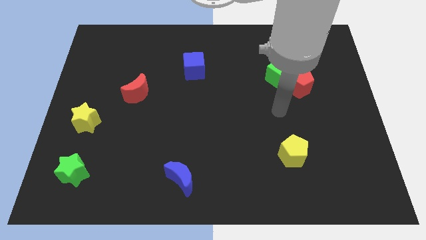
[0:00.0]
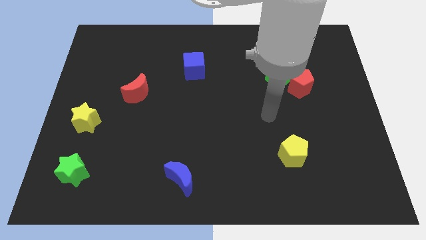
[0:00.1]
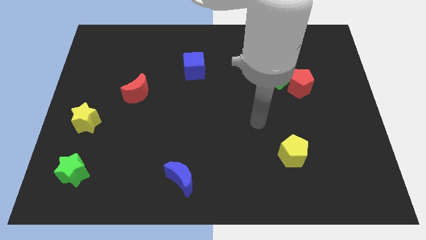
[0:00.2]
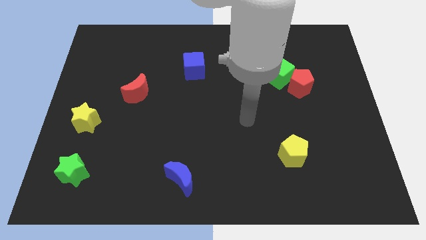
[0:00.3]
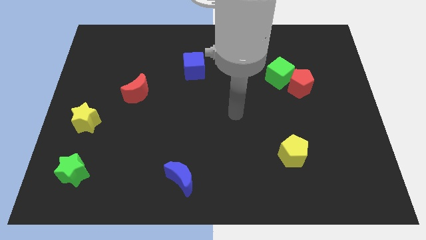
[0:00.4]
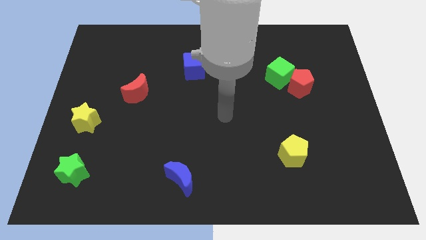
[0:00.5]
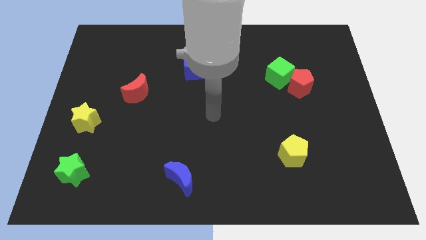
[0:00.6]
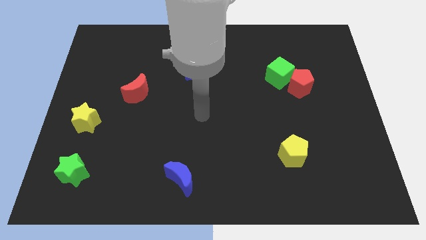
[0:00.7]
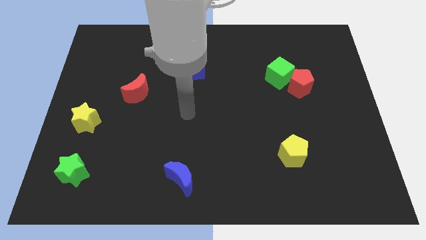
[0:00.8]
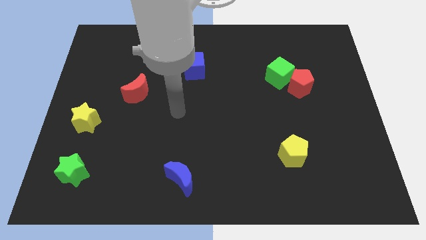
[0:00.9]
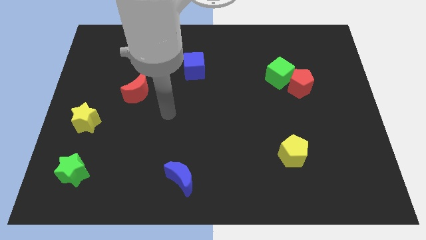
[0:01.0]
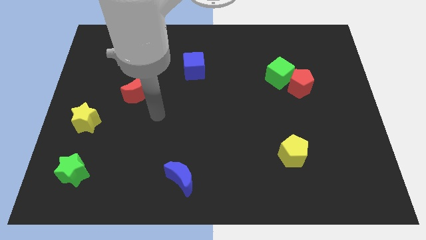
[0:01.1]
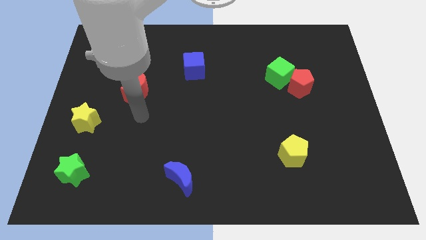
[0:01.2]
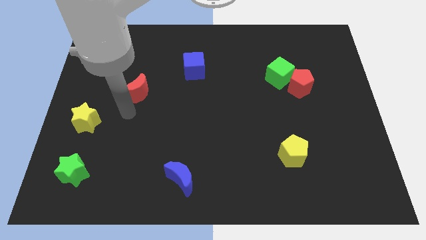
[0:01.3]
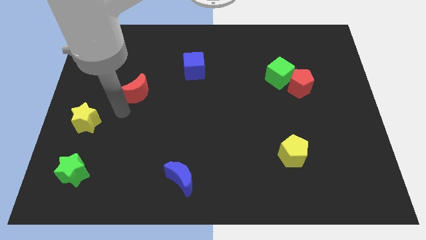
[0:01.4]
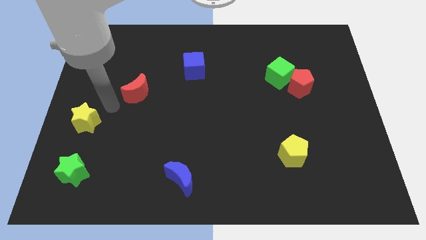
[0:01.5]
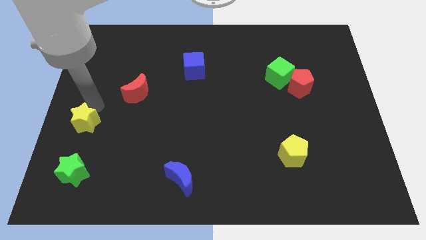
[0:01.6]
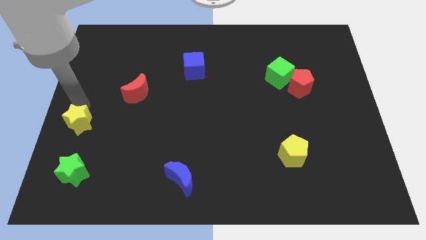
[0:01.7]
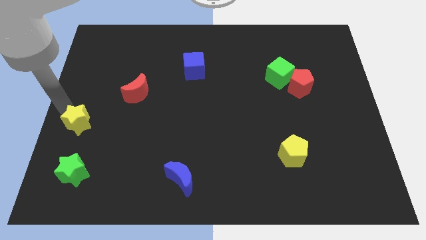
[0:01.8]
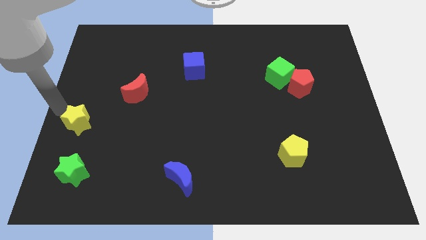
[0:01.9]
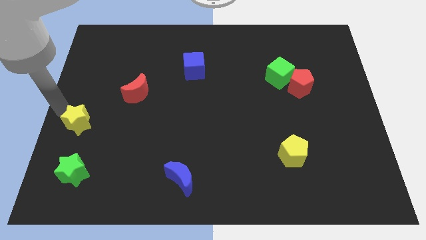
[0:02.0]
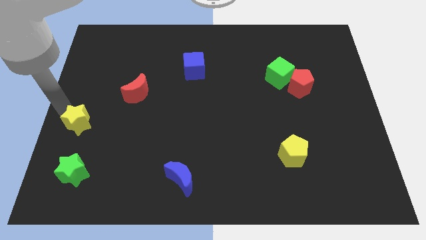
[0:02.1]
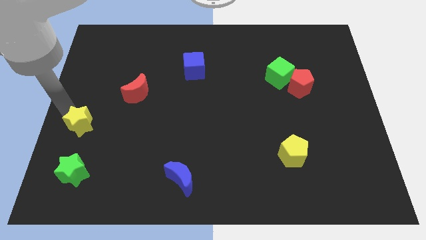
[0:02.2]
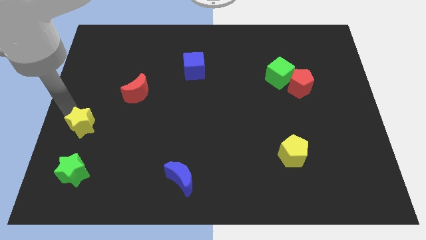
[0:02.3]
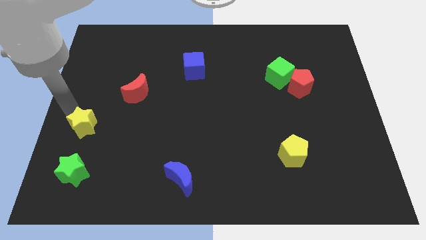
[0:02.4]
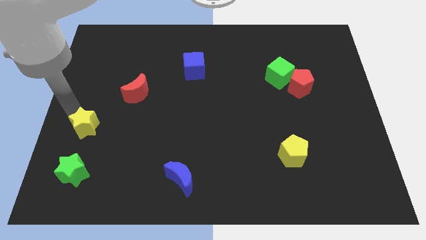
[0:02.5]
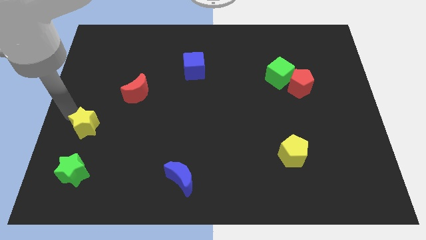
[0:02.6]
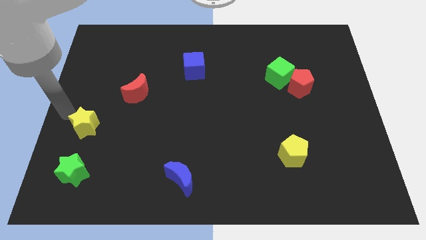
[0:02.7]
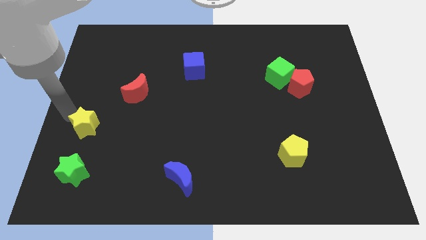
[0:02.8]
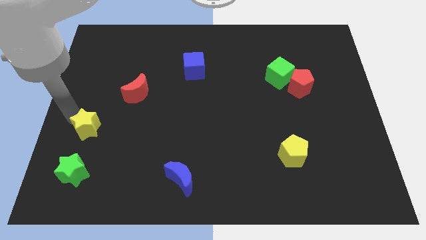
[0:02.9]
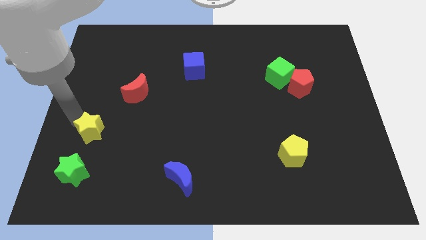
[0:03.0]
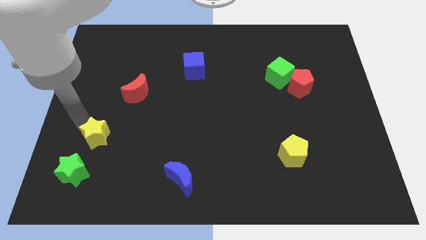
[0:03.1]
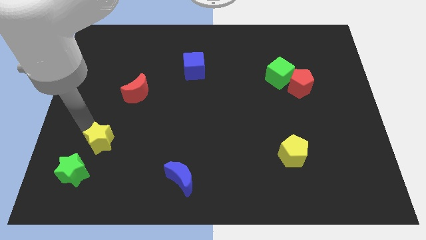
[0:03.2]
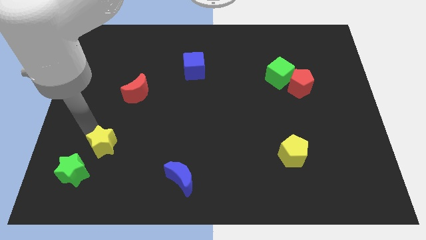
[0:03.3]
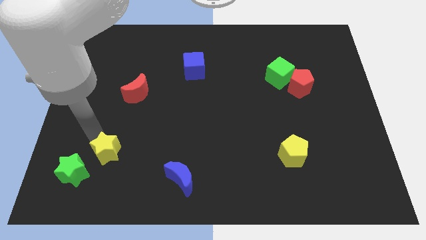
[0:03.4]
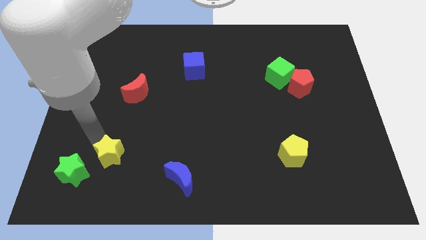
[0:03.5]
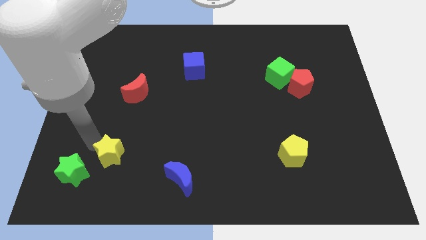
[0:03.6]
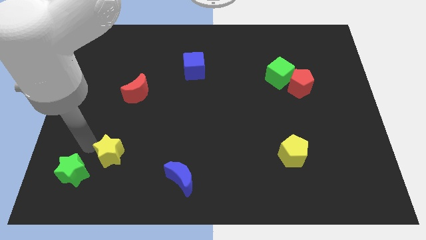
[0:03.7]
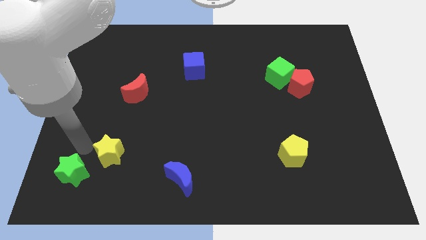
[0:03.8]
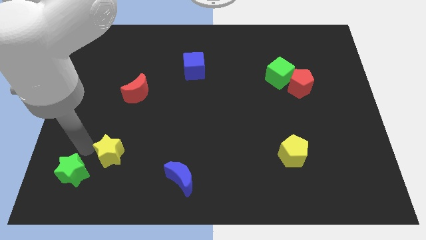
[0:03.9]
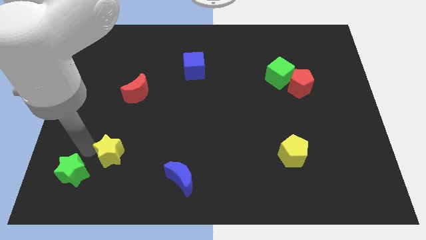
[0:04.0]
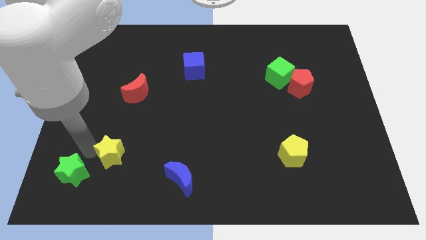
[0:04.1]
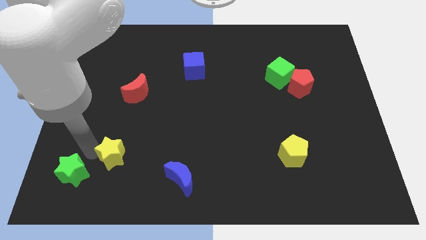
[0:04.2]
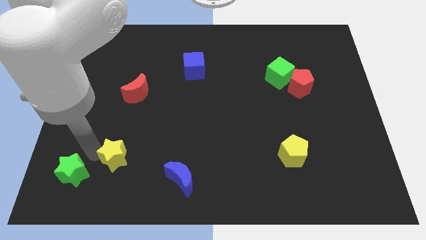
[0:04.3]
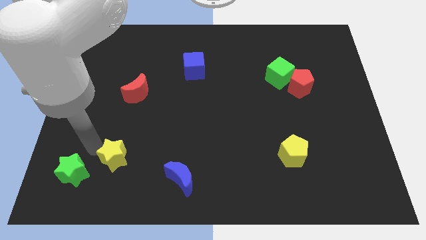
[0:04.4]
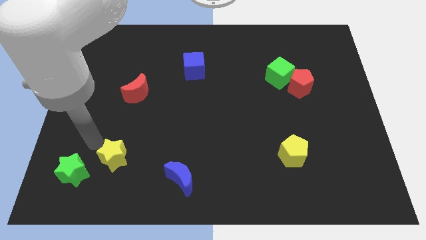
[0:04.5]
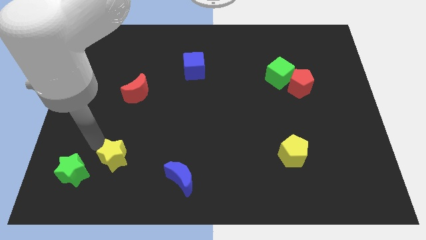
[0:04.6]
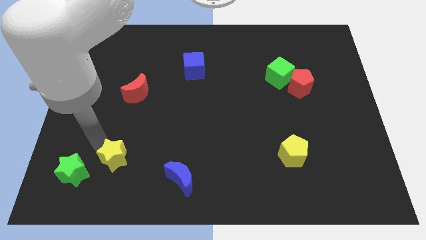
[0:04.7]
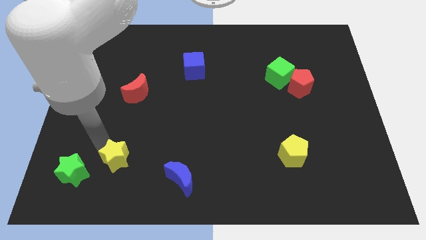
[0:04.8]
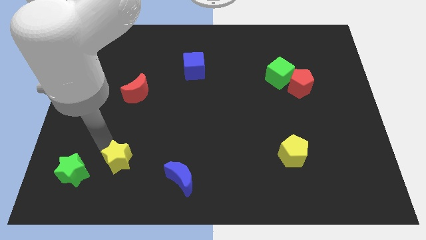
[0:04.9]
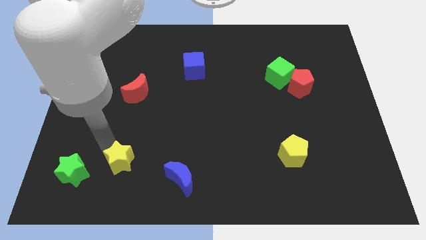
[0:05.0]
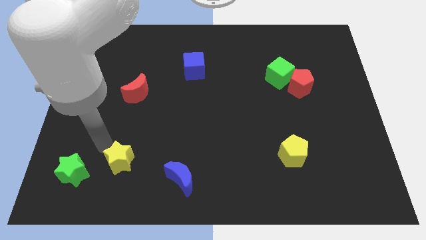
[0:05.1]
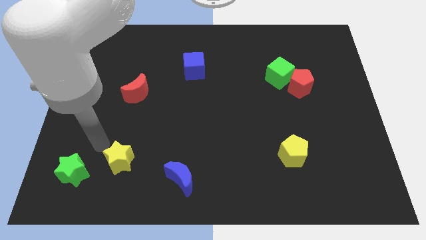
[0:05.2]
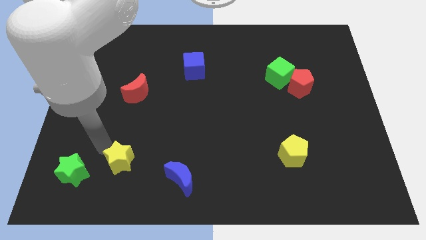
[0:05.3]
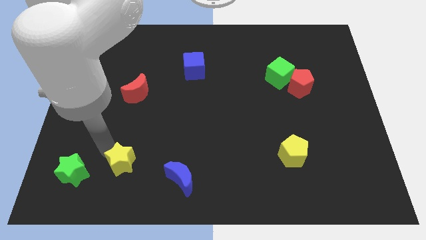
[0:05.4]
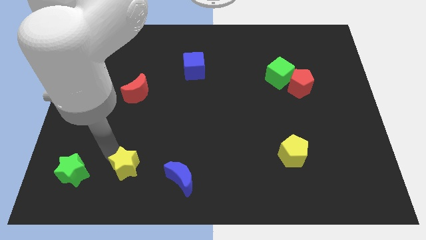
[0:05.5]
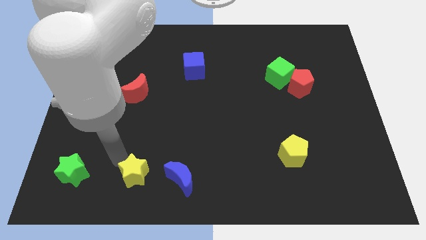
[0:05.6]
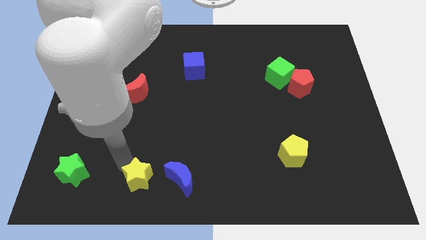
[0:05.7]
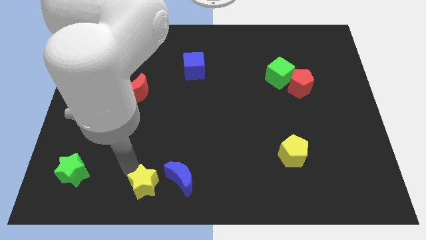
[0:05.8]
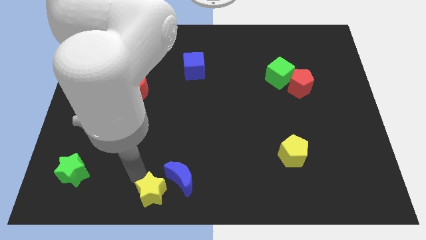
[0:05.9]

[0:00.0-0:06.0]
put the yellow star to the bottom
